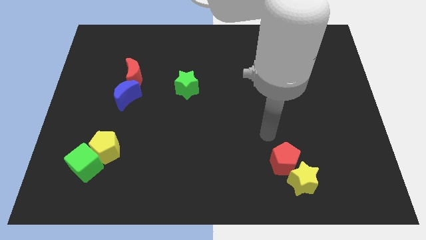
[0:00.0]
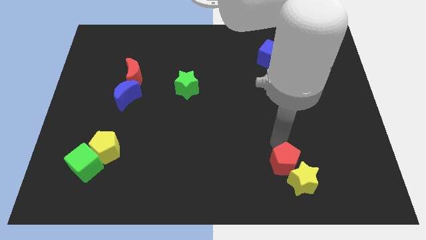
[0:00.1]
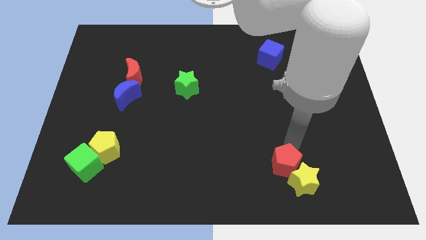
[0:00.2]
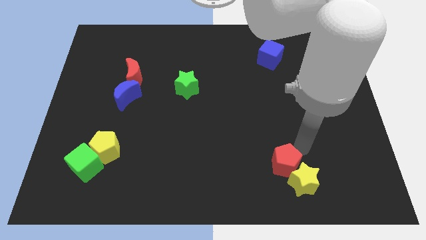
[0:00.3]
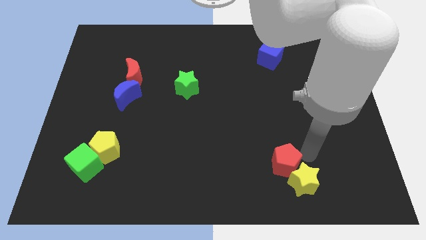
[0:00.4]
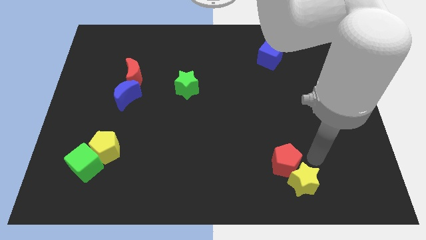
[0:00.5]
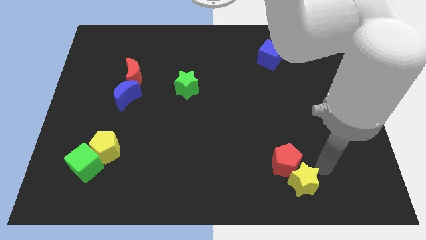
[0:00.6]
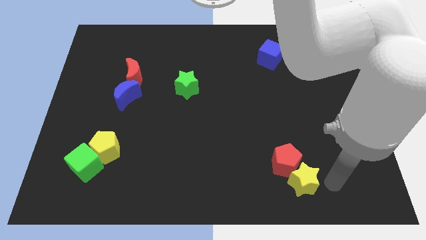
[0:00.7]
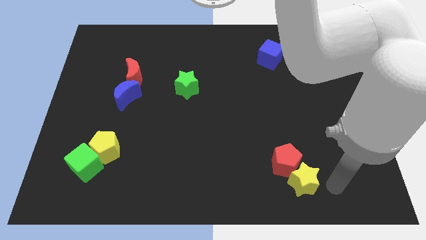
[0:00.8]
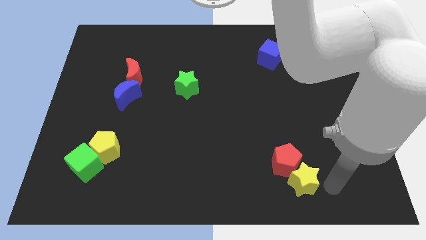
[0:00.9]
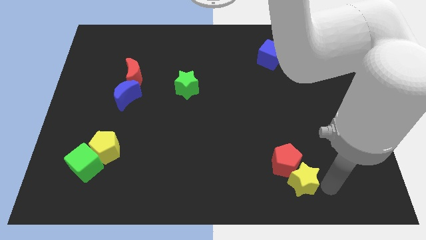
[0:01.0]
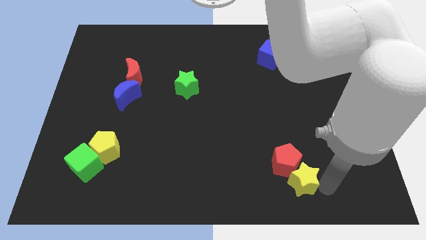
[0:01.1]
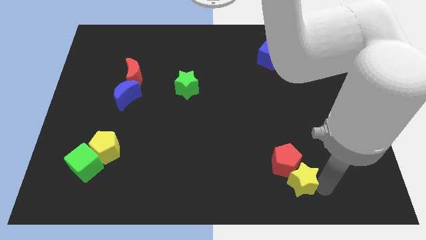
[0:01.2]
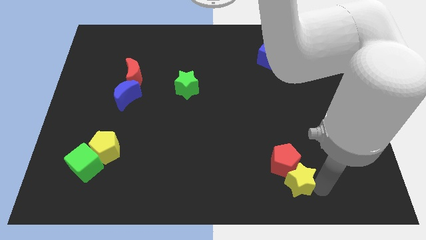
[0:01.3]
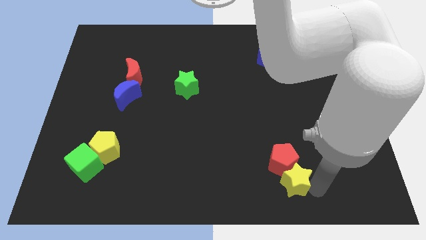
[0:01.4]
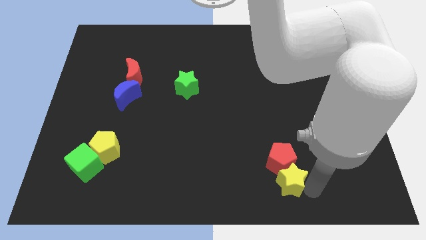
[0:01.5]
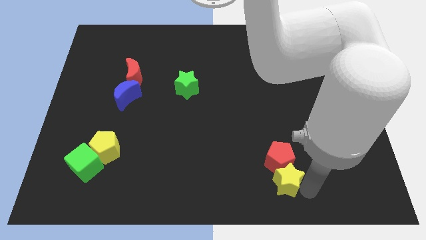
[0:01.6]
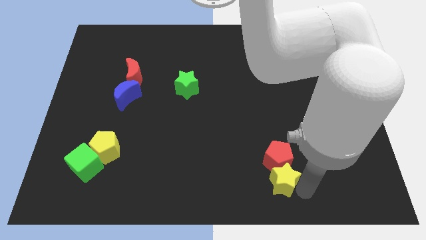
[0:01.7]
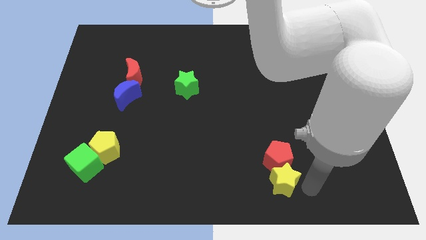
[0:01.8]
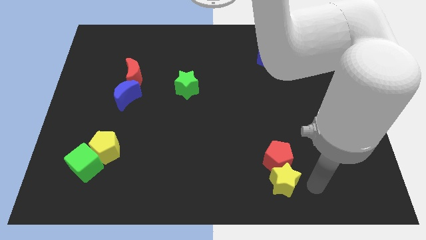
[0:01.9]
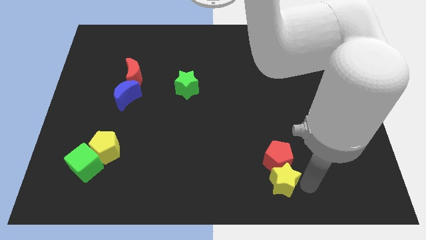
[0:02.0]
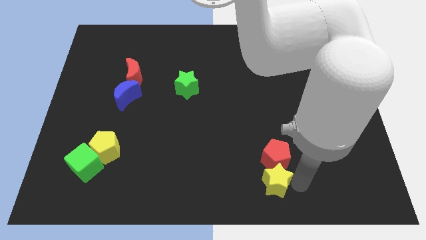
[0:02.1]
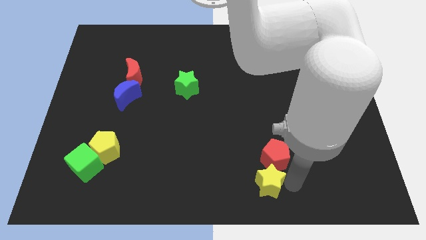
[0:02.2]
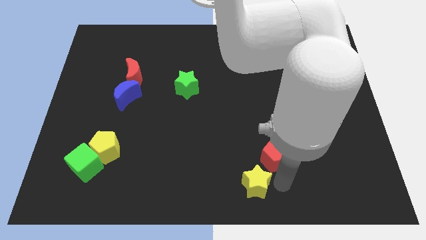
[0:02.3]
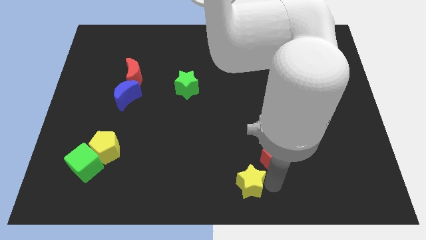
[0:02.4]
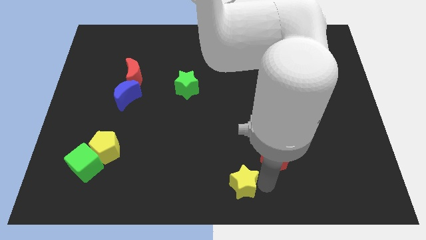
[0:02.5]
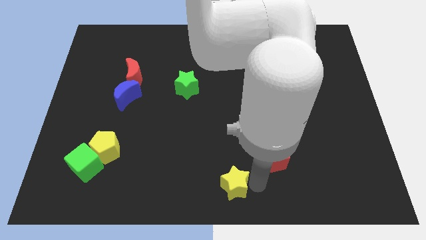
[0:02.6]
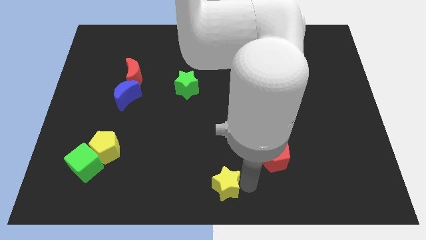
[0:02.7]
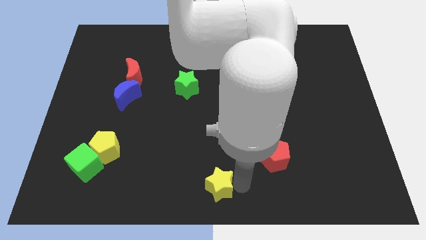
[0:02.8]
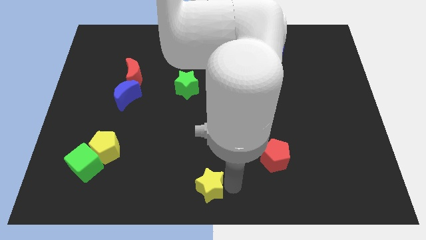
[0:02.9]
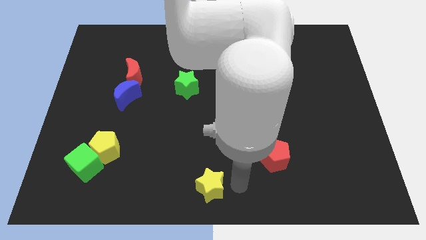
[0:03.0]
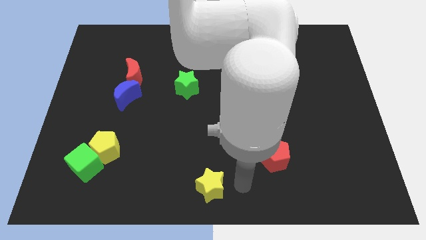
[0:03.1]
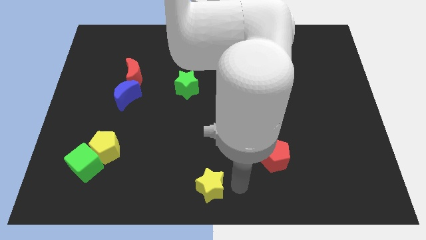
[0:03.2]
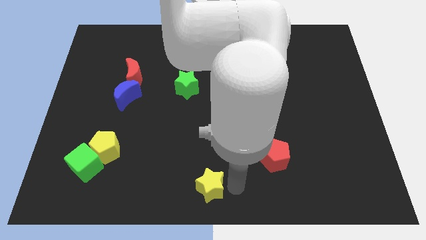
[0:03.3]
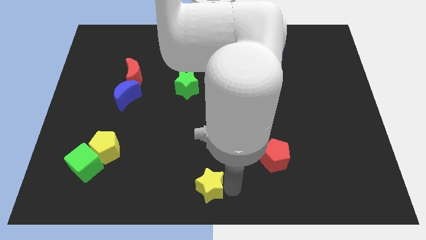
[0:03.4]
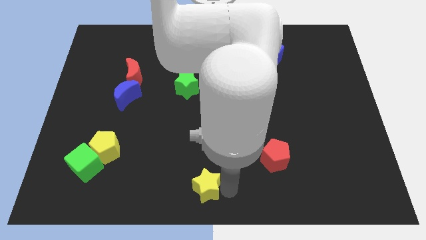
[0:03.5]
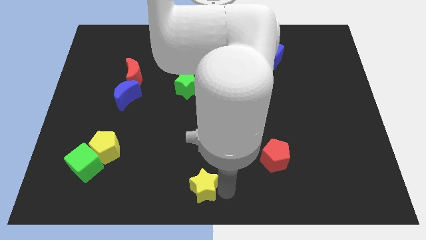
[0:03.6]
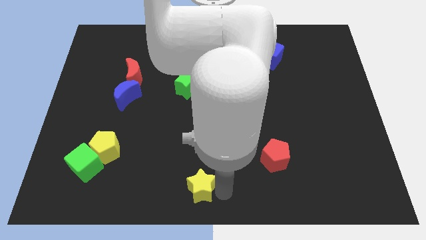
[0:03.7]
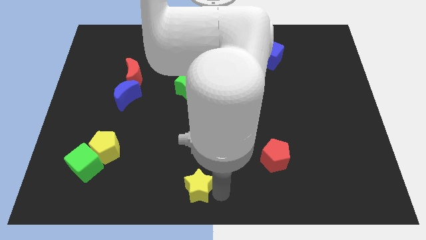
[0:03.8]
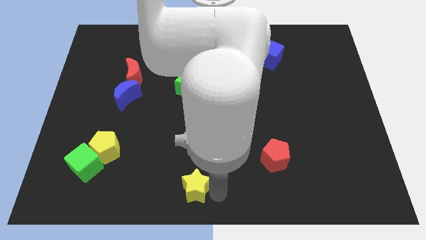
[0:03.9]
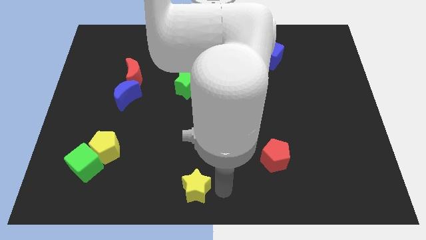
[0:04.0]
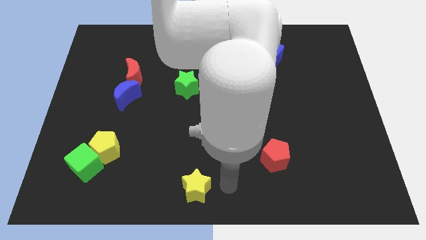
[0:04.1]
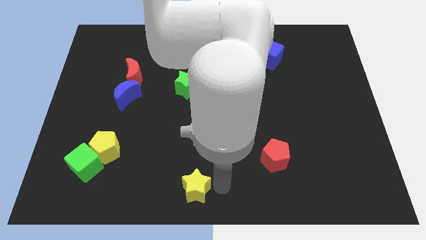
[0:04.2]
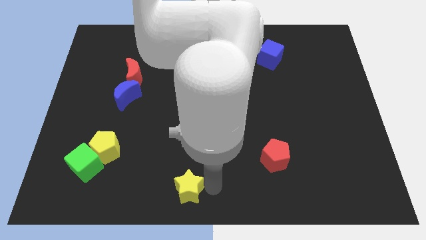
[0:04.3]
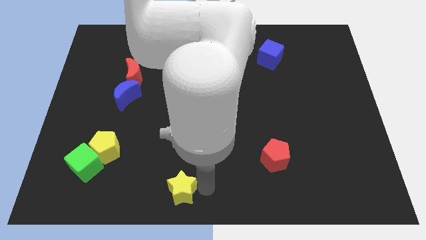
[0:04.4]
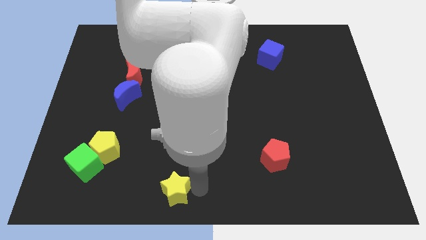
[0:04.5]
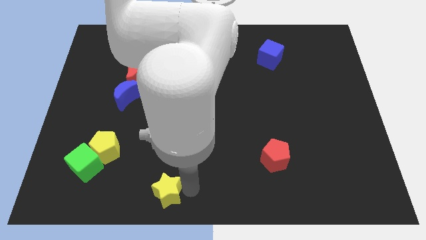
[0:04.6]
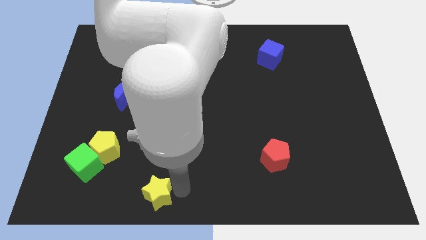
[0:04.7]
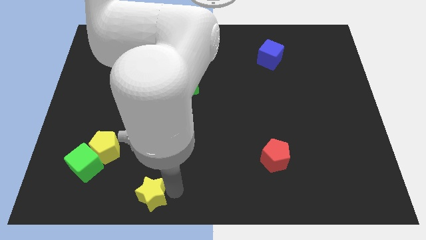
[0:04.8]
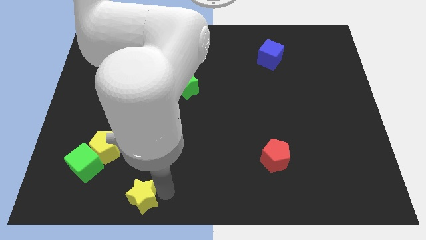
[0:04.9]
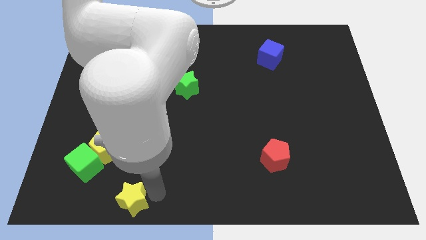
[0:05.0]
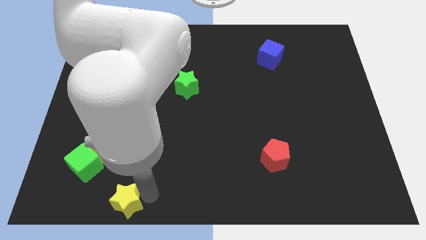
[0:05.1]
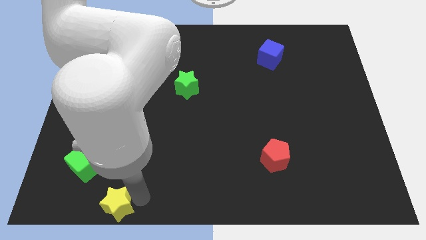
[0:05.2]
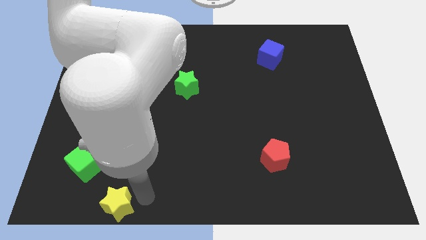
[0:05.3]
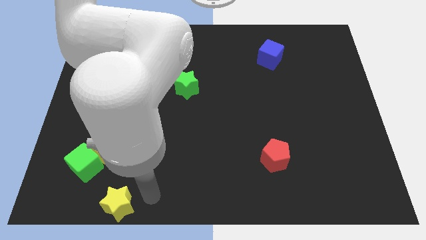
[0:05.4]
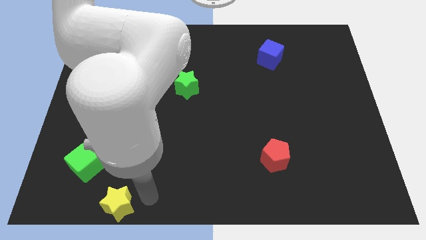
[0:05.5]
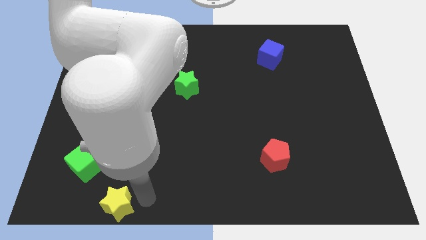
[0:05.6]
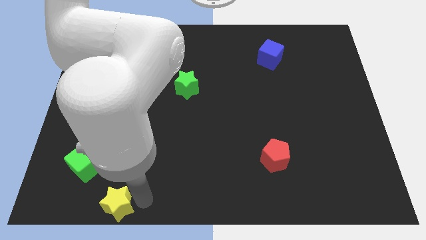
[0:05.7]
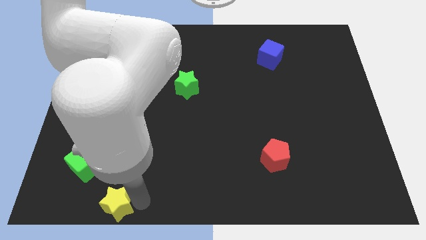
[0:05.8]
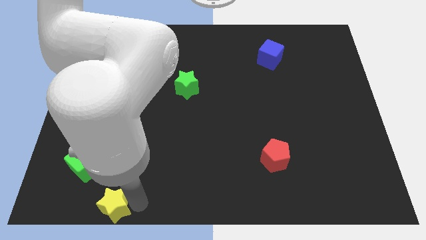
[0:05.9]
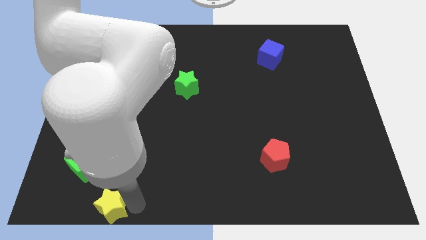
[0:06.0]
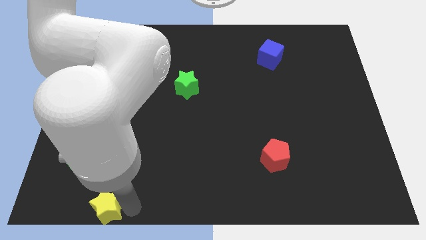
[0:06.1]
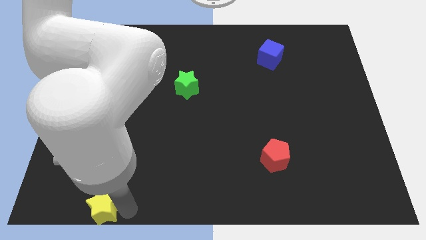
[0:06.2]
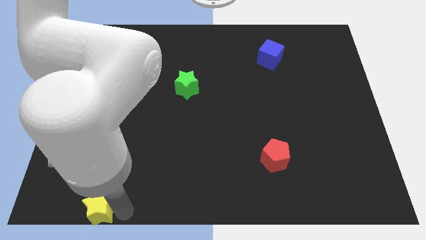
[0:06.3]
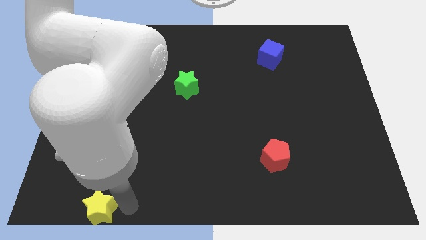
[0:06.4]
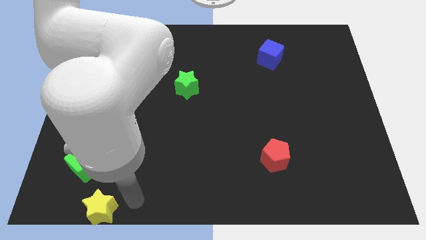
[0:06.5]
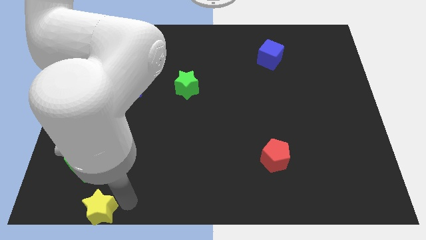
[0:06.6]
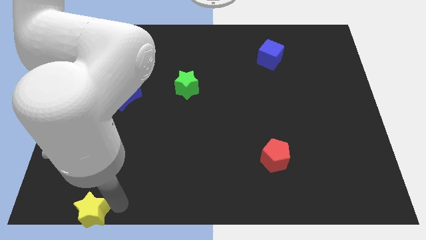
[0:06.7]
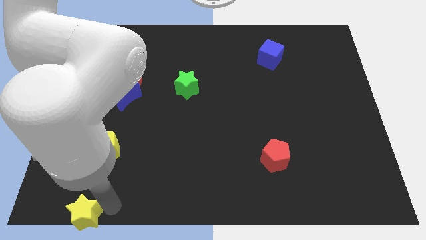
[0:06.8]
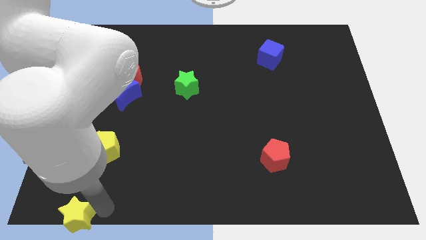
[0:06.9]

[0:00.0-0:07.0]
slide the yellow star to the bottom left corner
